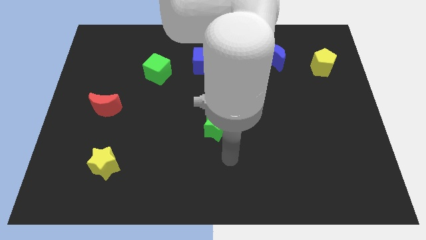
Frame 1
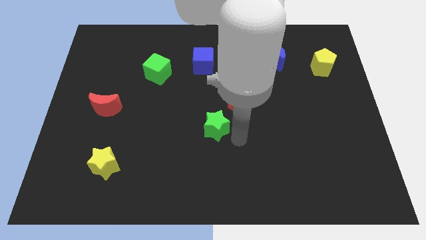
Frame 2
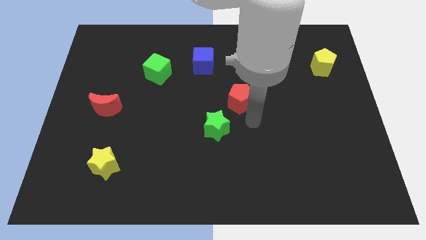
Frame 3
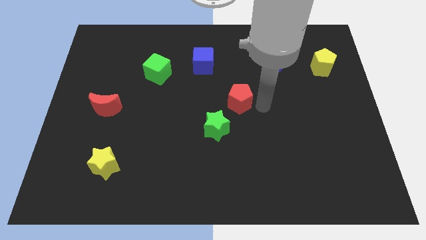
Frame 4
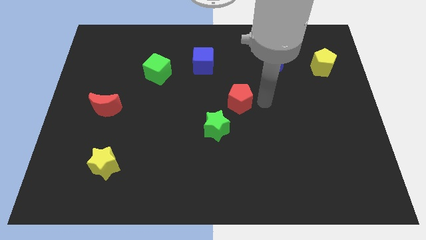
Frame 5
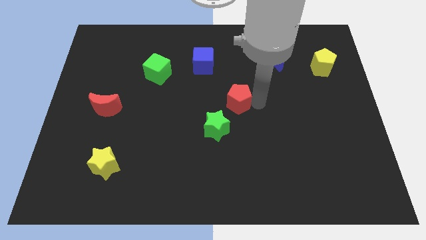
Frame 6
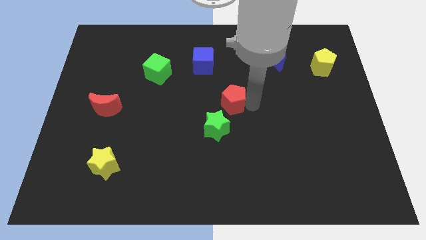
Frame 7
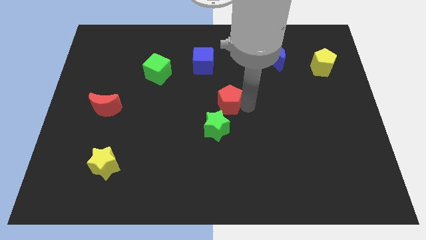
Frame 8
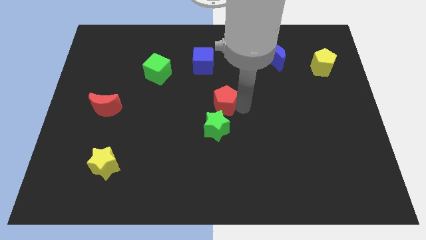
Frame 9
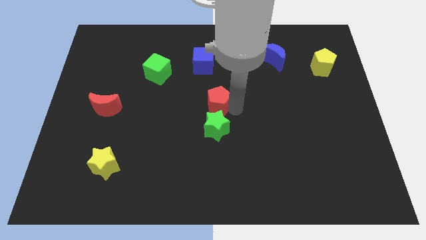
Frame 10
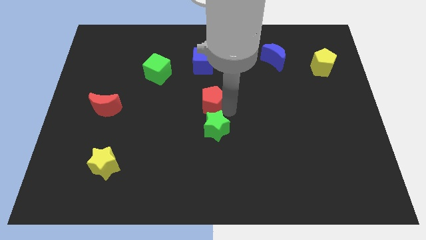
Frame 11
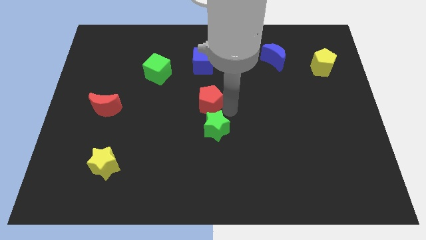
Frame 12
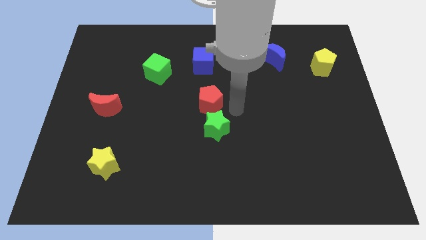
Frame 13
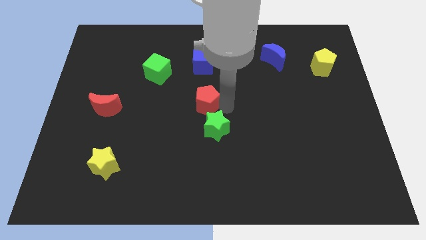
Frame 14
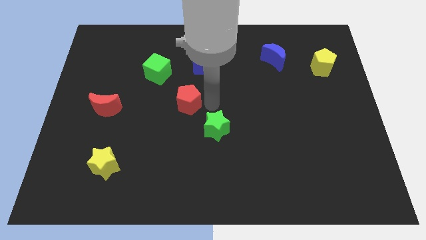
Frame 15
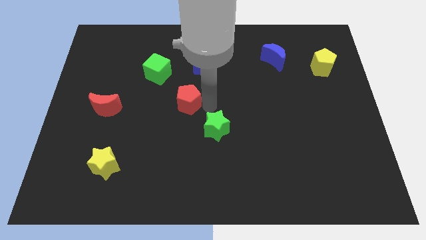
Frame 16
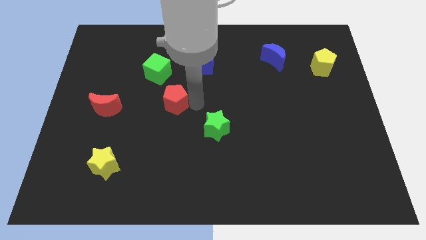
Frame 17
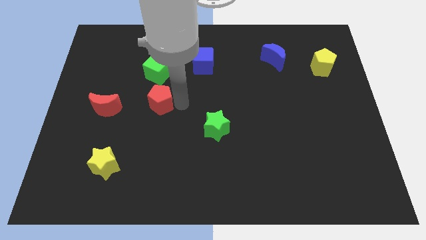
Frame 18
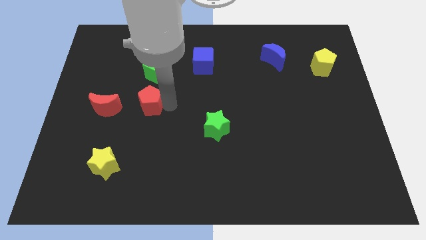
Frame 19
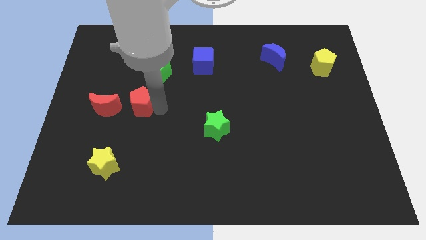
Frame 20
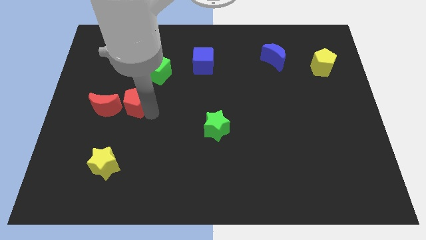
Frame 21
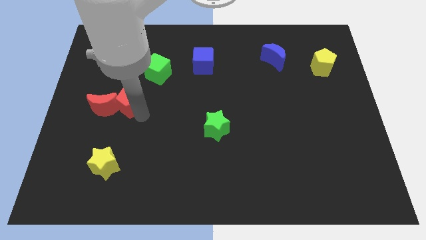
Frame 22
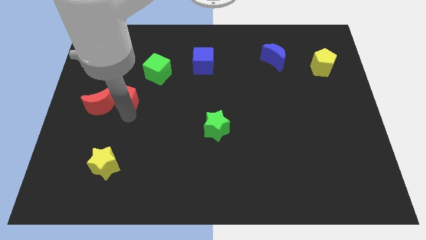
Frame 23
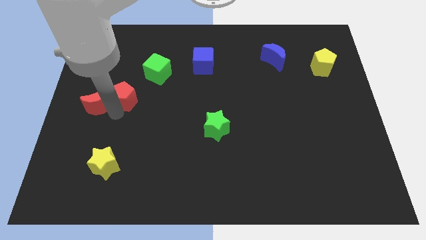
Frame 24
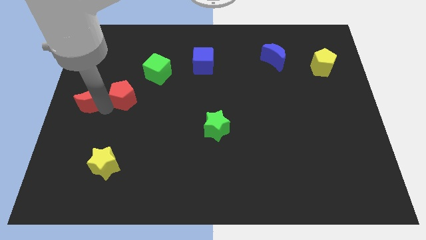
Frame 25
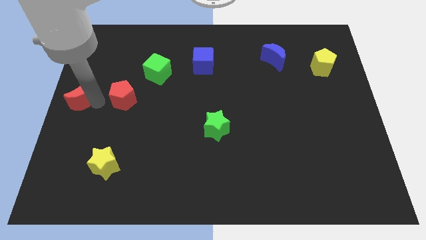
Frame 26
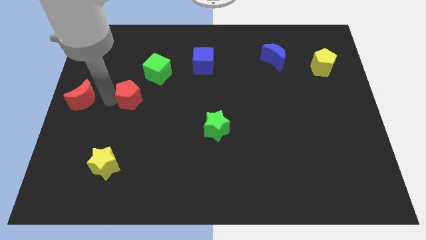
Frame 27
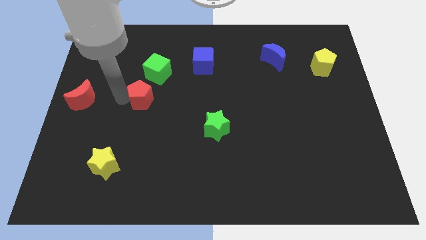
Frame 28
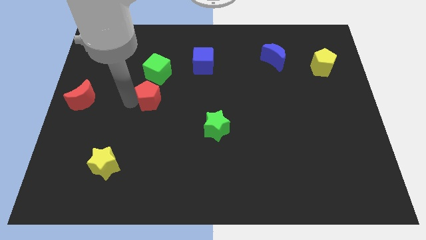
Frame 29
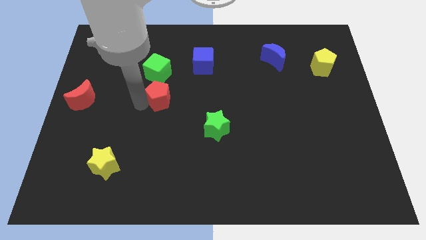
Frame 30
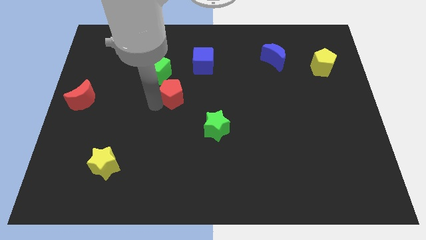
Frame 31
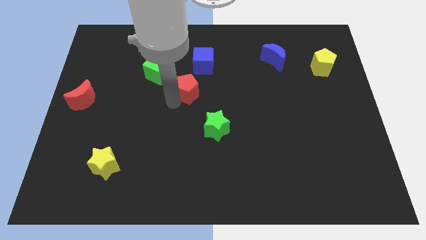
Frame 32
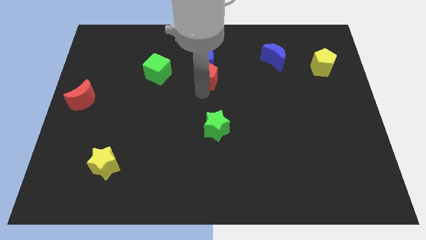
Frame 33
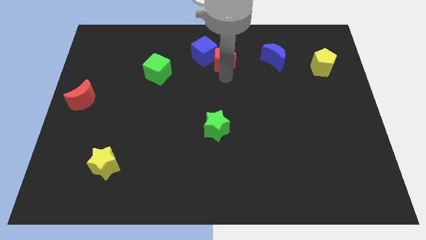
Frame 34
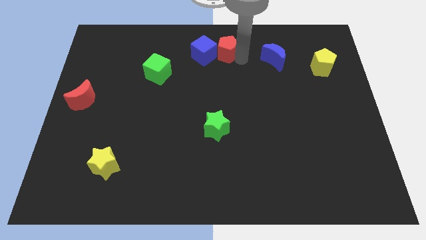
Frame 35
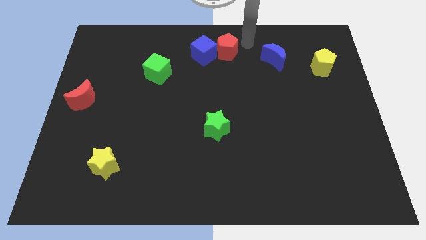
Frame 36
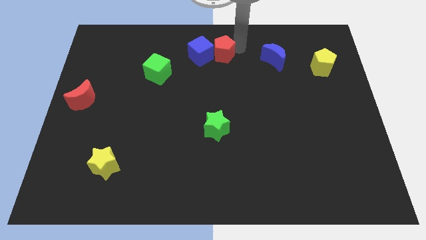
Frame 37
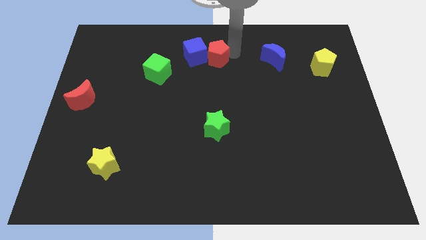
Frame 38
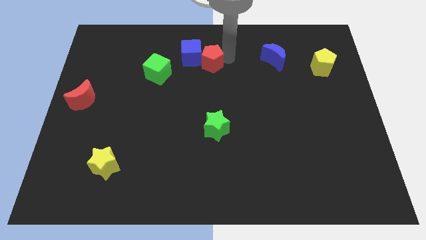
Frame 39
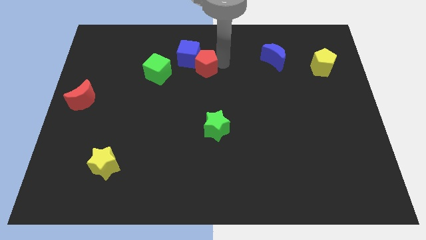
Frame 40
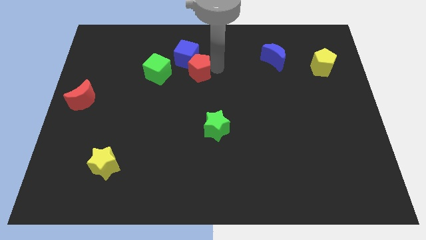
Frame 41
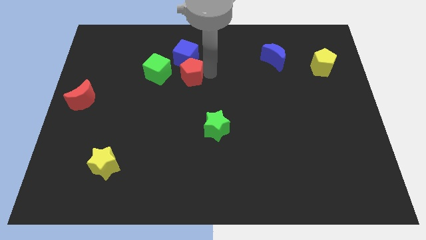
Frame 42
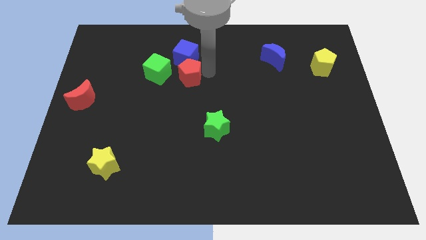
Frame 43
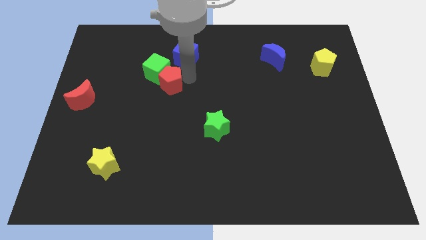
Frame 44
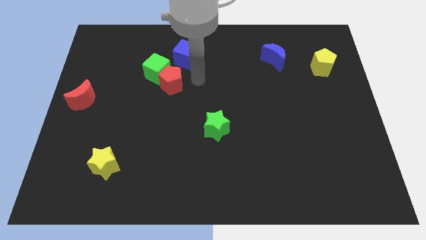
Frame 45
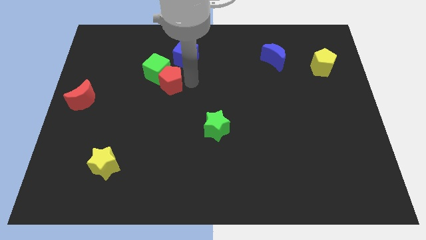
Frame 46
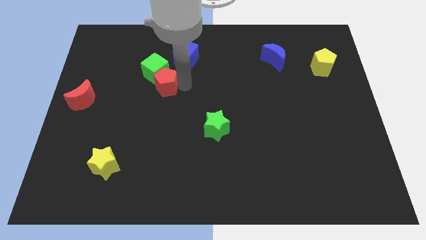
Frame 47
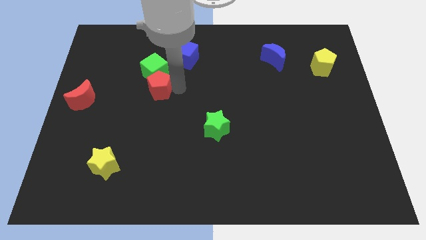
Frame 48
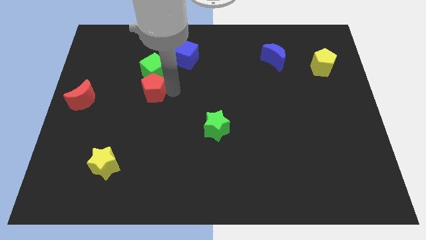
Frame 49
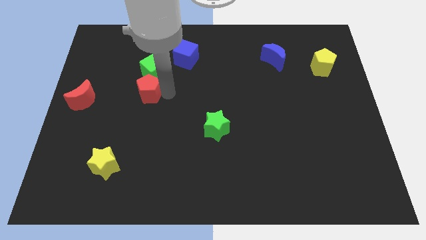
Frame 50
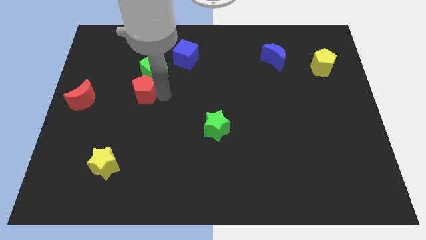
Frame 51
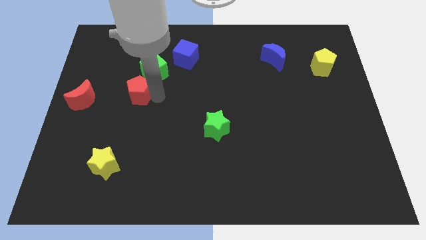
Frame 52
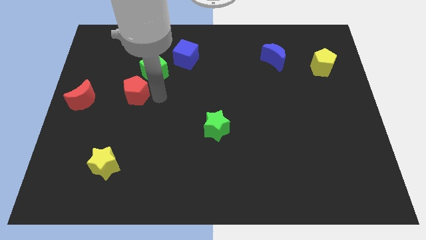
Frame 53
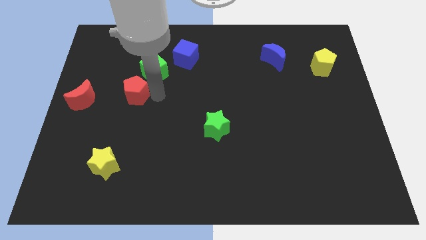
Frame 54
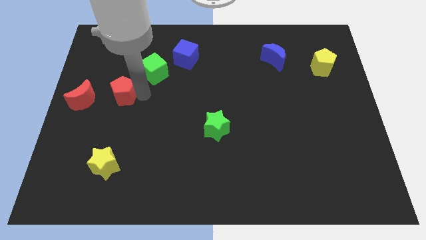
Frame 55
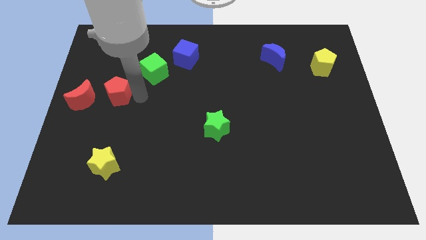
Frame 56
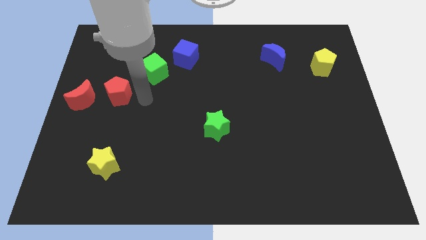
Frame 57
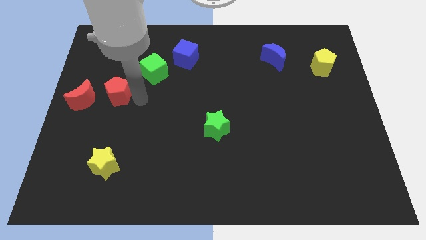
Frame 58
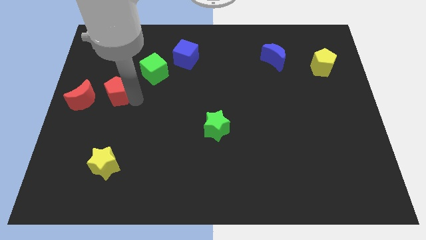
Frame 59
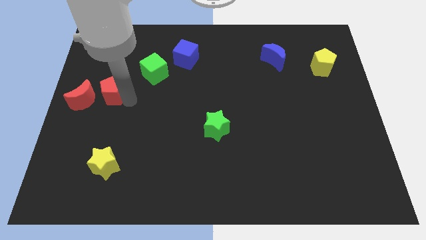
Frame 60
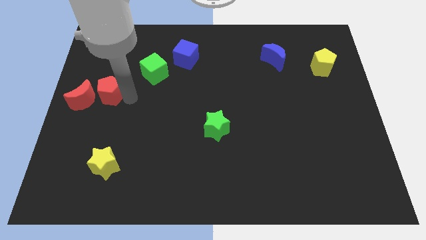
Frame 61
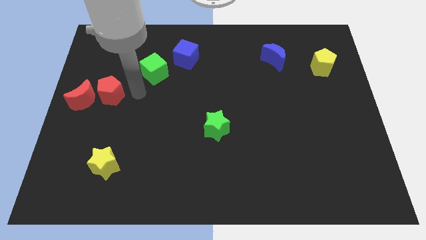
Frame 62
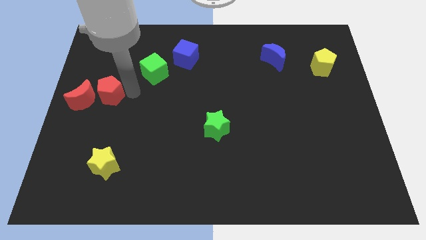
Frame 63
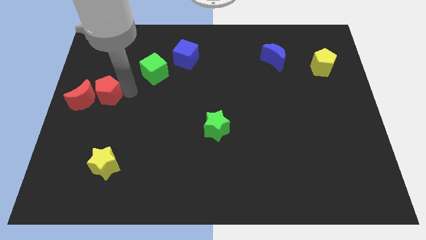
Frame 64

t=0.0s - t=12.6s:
move the red pentagon to the left side of the board
